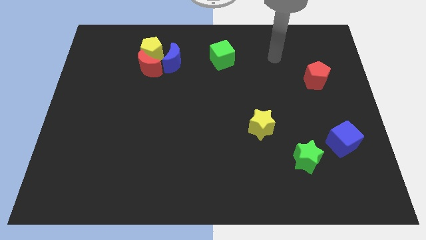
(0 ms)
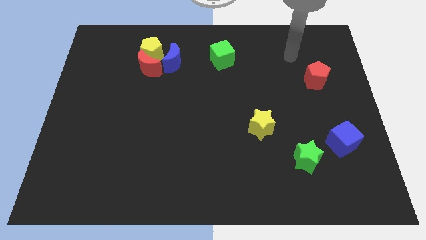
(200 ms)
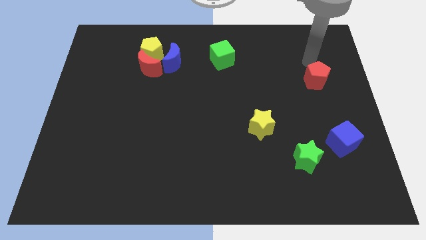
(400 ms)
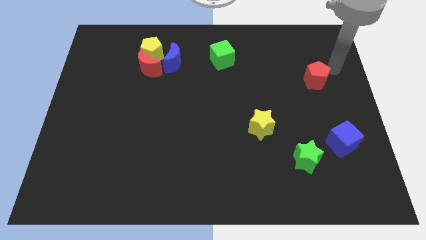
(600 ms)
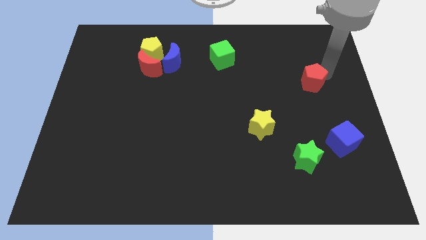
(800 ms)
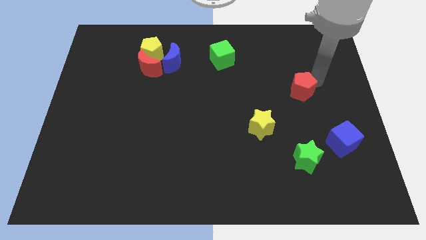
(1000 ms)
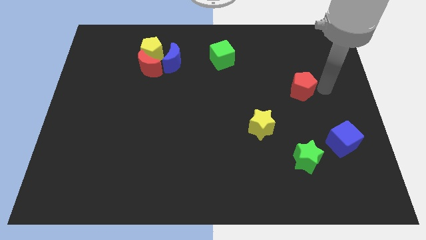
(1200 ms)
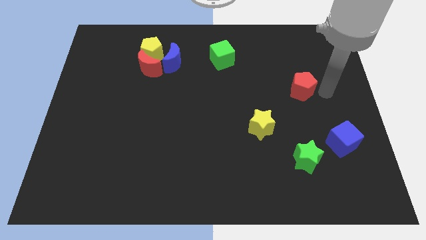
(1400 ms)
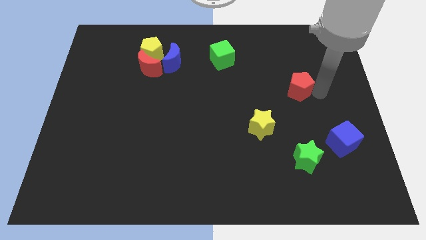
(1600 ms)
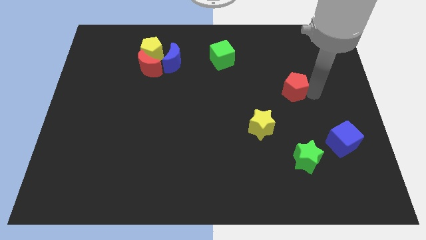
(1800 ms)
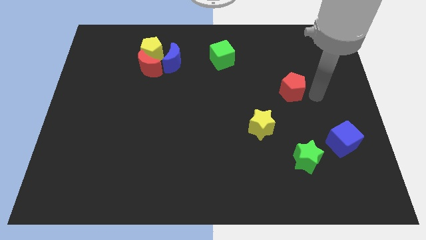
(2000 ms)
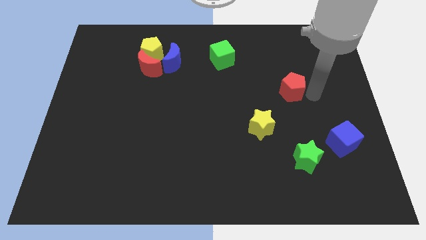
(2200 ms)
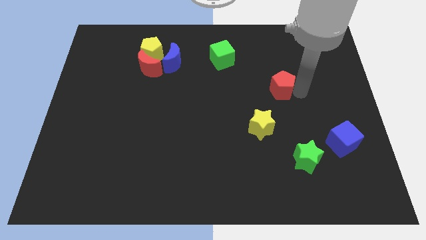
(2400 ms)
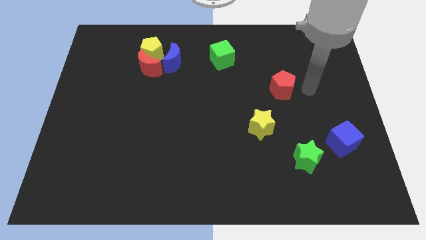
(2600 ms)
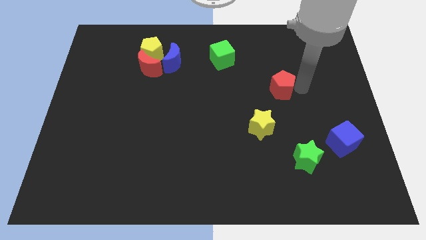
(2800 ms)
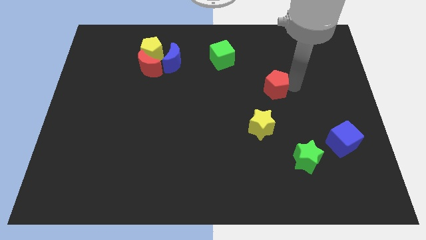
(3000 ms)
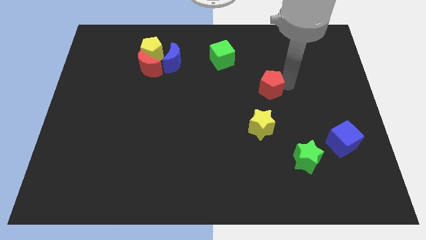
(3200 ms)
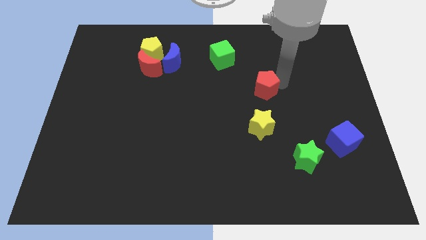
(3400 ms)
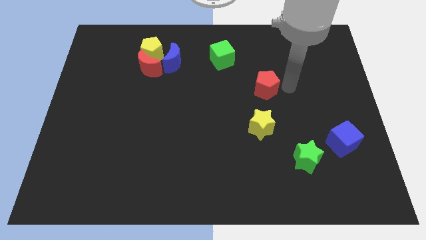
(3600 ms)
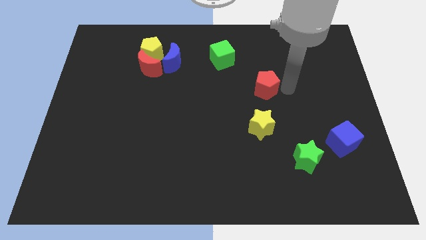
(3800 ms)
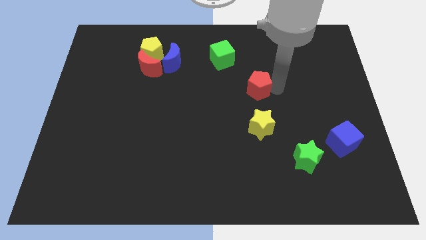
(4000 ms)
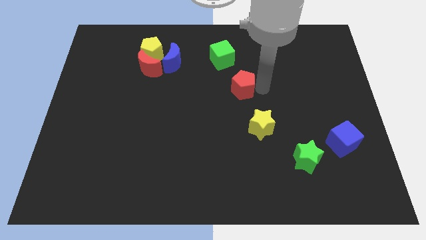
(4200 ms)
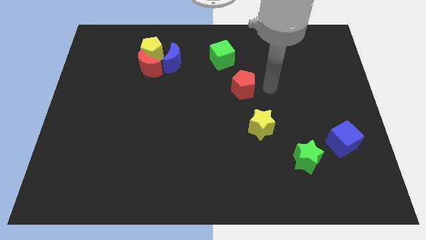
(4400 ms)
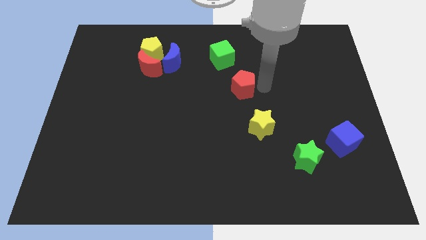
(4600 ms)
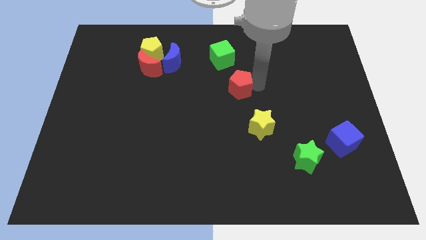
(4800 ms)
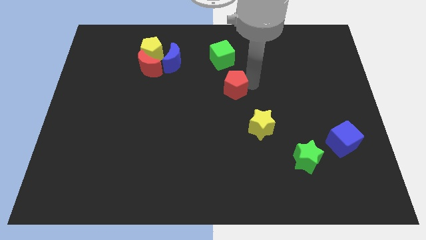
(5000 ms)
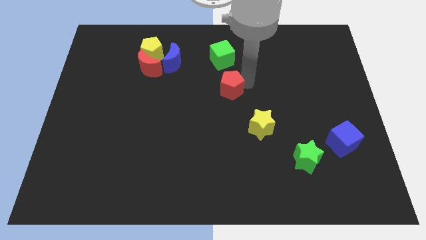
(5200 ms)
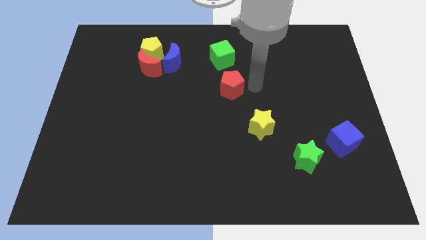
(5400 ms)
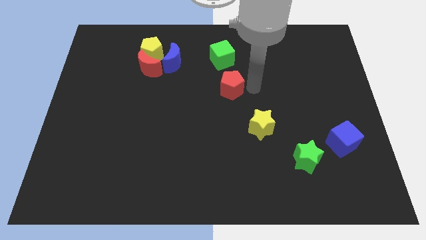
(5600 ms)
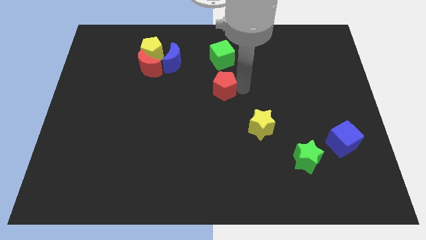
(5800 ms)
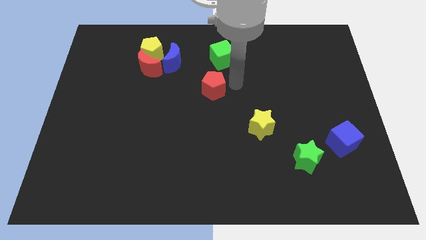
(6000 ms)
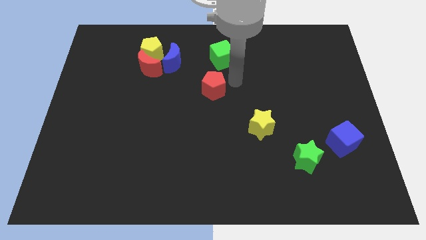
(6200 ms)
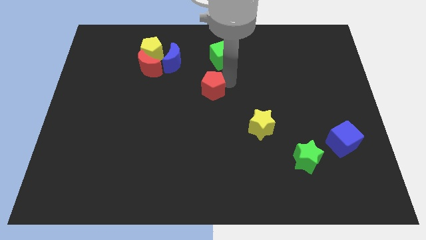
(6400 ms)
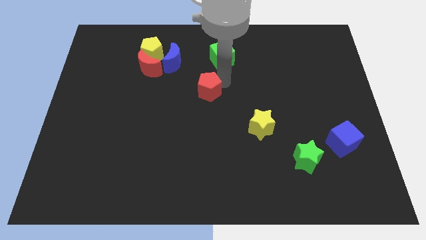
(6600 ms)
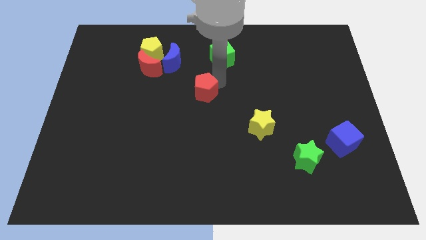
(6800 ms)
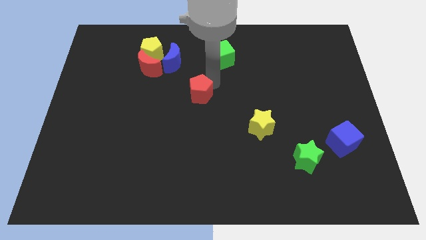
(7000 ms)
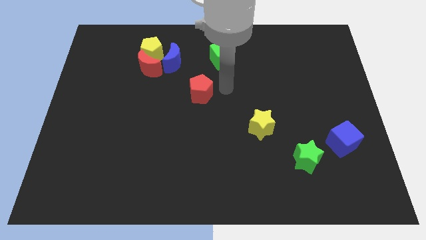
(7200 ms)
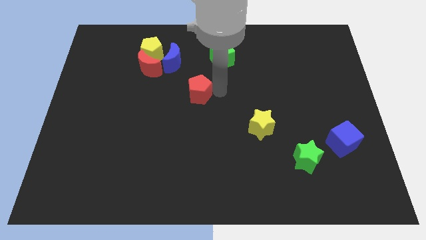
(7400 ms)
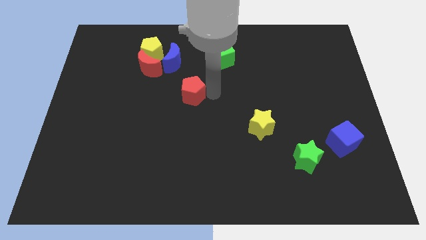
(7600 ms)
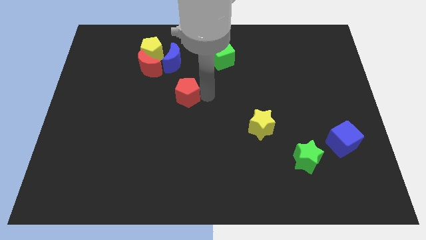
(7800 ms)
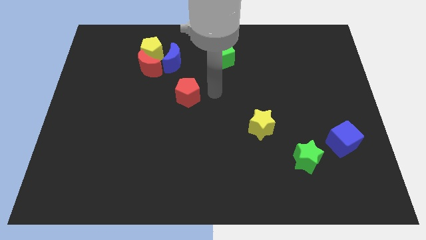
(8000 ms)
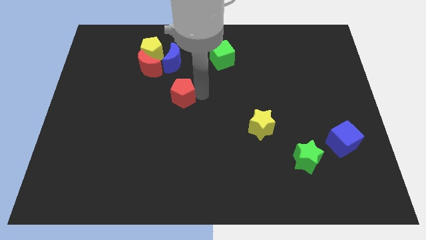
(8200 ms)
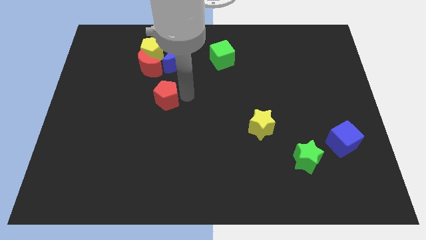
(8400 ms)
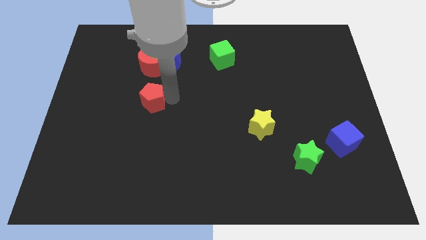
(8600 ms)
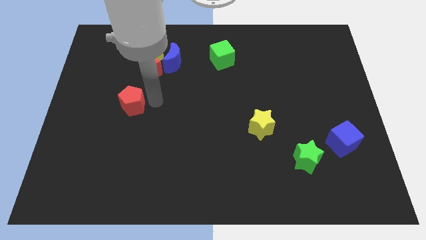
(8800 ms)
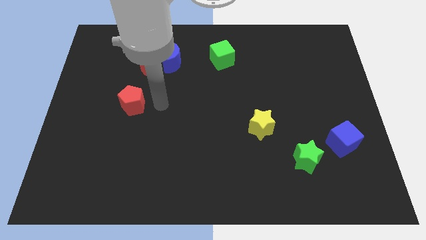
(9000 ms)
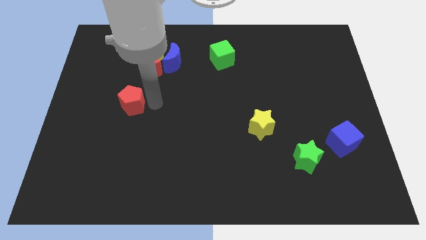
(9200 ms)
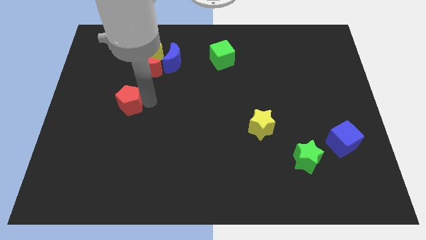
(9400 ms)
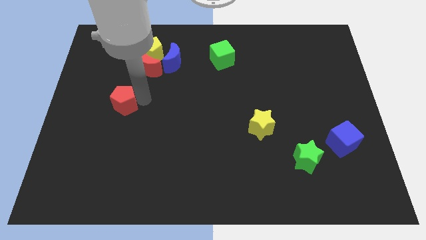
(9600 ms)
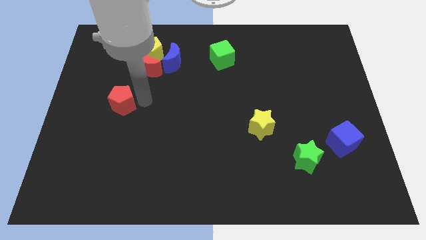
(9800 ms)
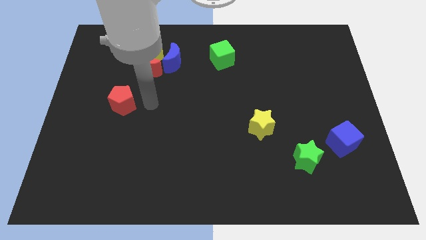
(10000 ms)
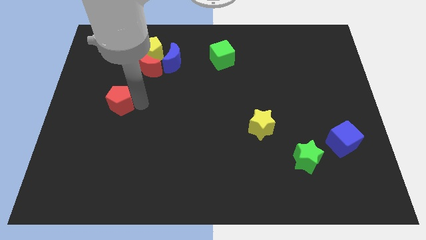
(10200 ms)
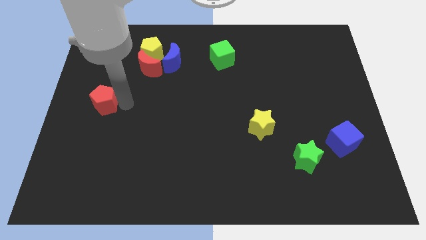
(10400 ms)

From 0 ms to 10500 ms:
put the red pentagon to the left side of the board

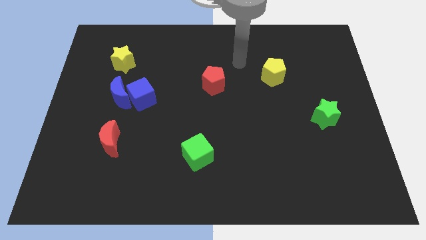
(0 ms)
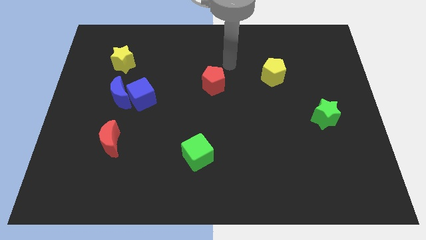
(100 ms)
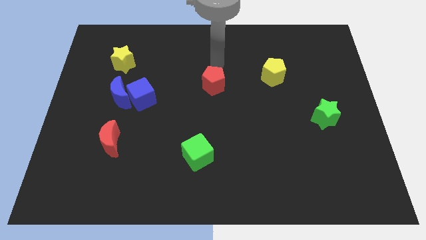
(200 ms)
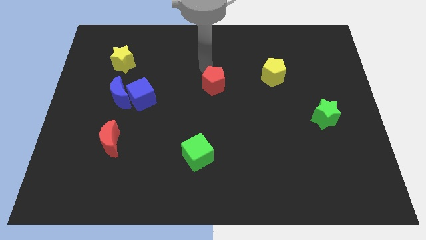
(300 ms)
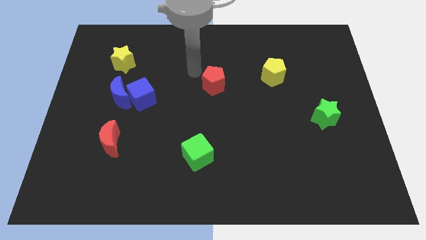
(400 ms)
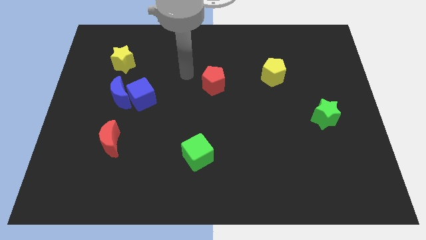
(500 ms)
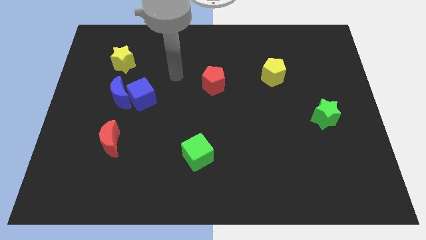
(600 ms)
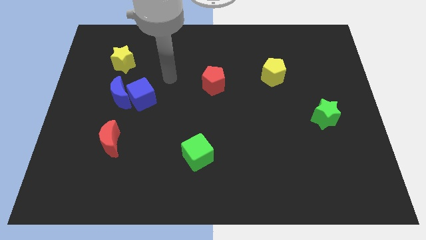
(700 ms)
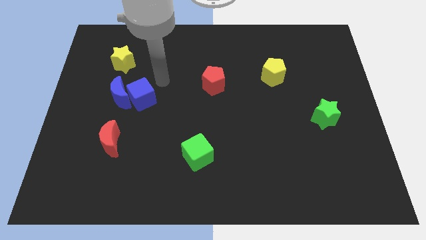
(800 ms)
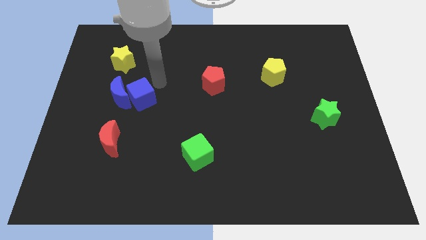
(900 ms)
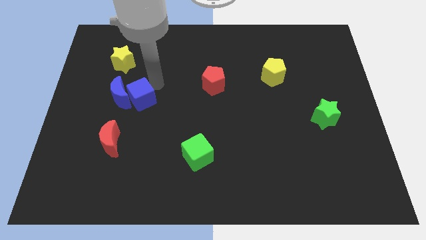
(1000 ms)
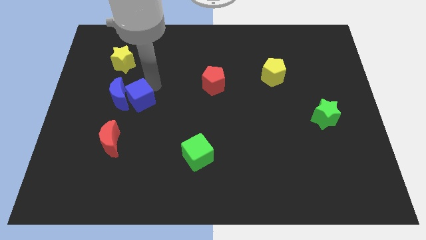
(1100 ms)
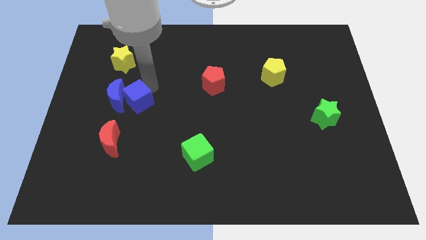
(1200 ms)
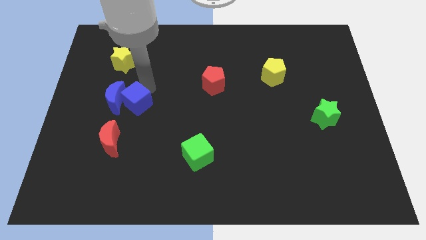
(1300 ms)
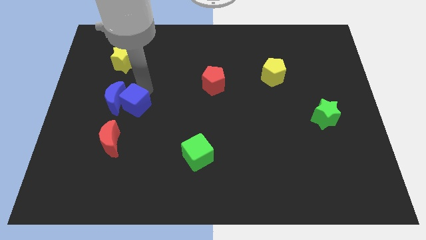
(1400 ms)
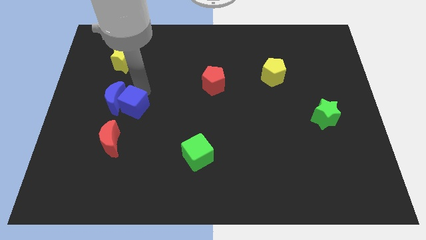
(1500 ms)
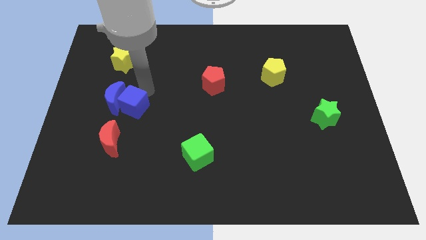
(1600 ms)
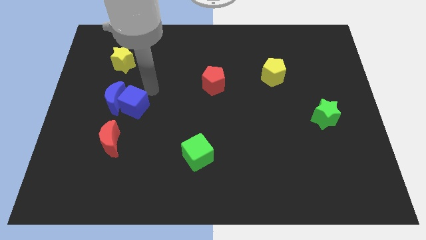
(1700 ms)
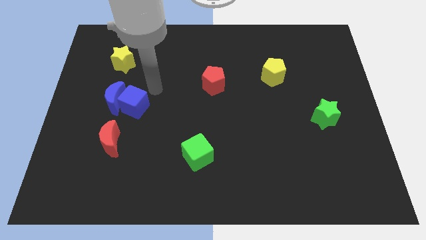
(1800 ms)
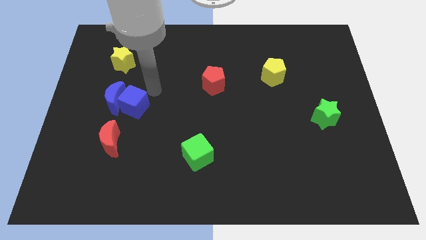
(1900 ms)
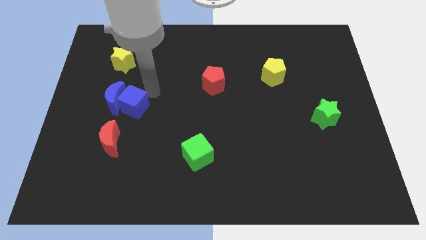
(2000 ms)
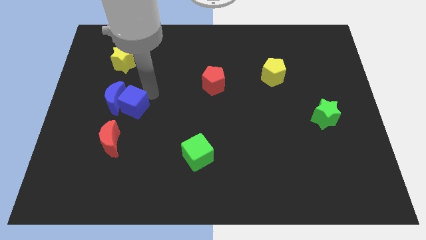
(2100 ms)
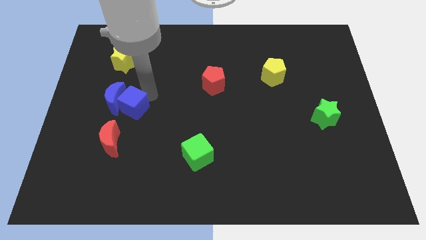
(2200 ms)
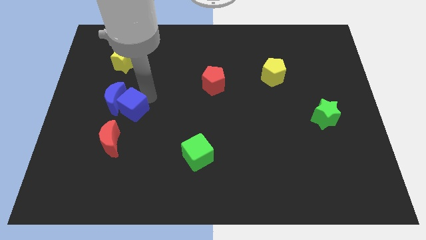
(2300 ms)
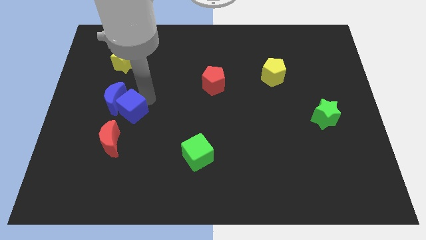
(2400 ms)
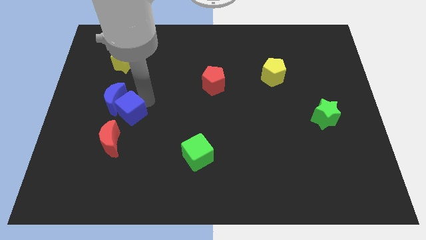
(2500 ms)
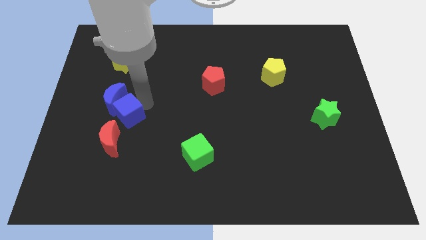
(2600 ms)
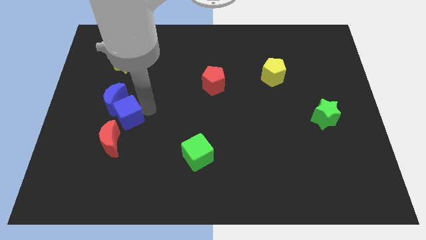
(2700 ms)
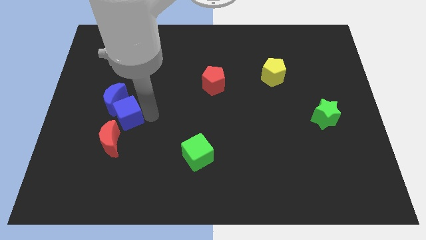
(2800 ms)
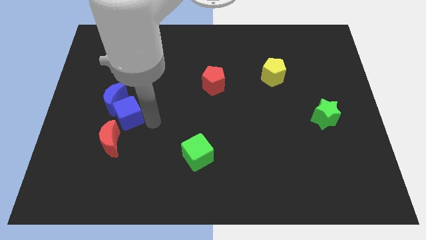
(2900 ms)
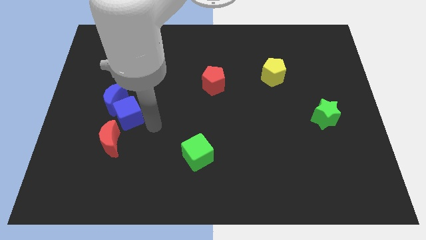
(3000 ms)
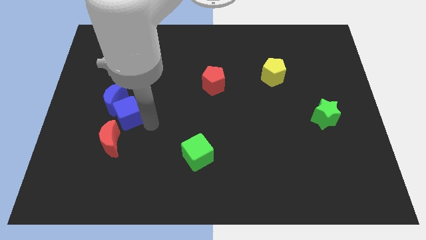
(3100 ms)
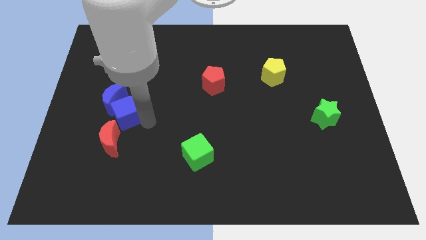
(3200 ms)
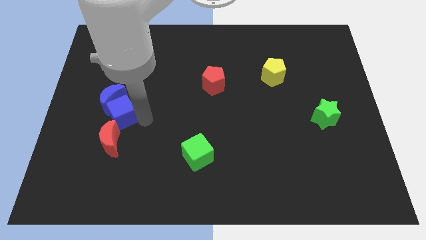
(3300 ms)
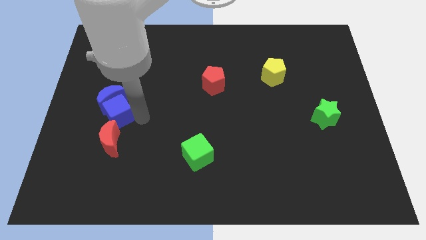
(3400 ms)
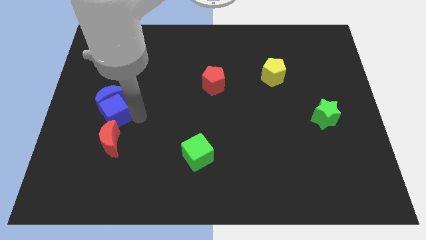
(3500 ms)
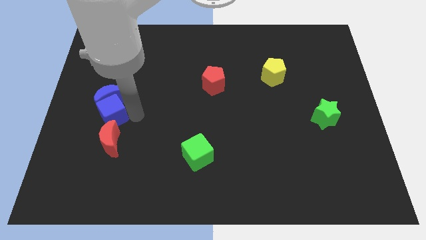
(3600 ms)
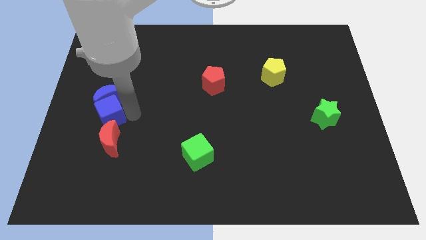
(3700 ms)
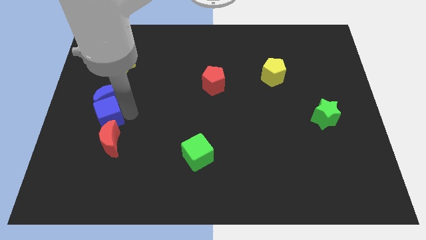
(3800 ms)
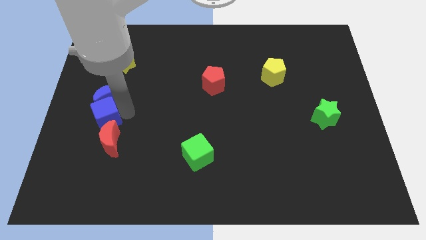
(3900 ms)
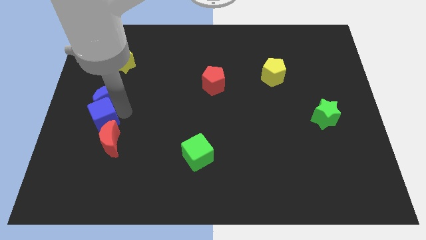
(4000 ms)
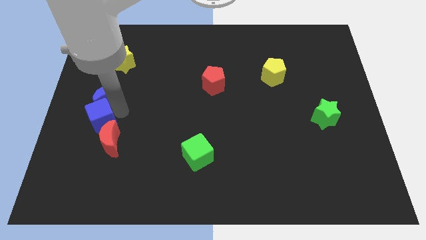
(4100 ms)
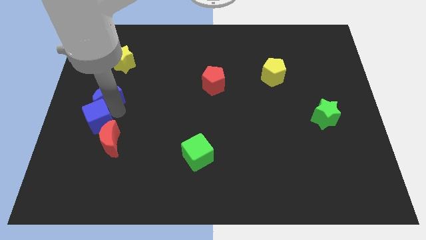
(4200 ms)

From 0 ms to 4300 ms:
put the blue cube to the center left
